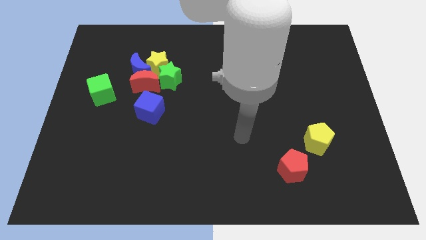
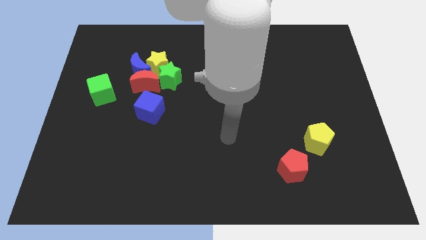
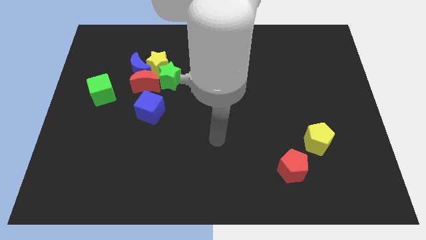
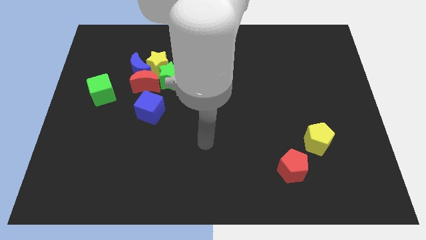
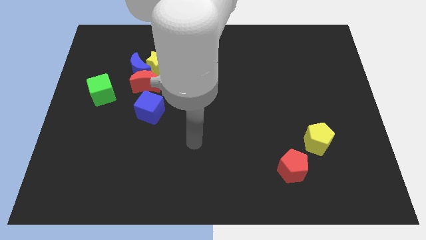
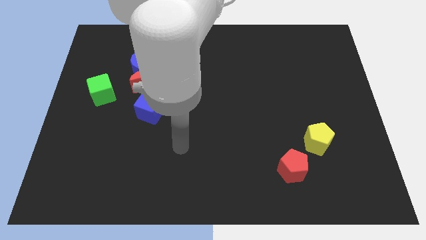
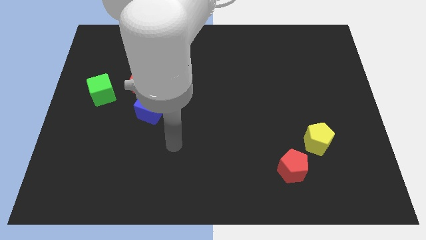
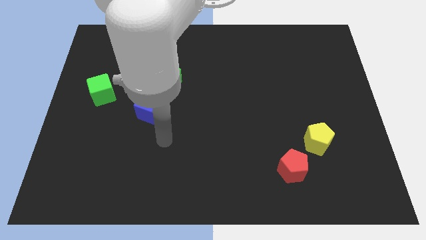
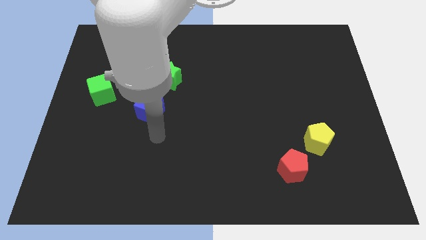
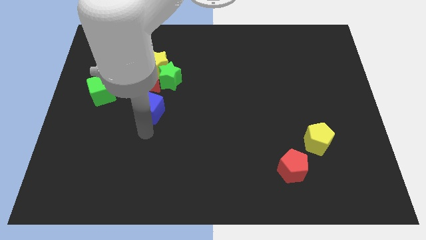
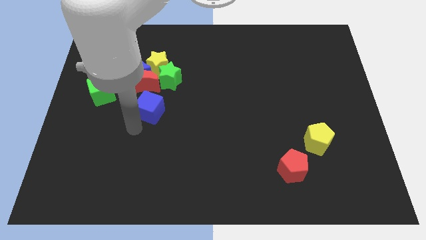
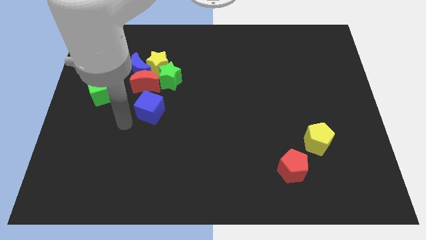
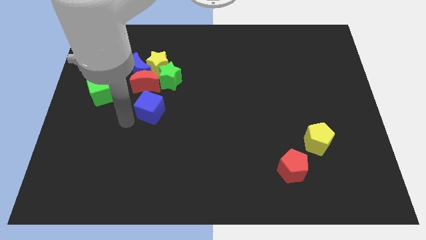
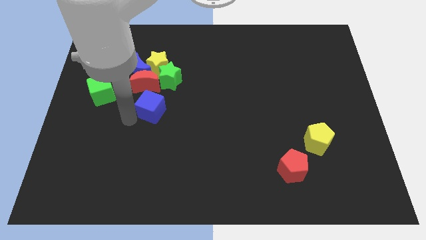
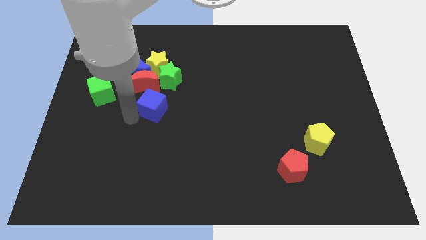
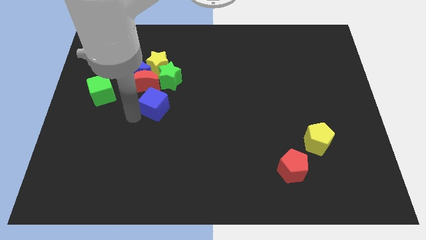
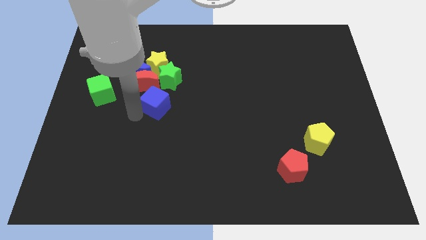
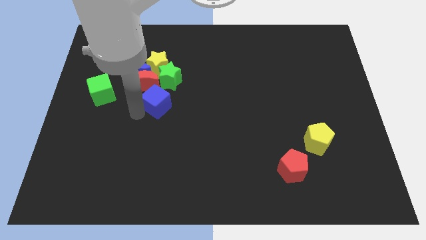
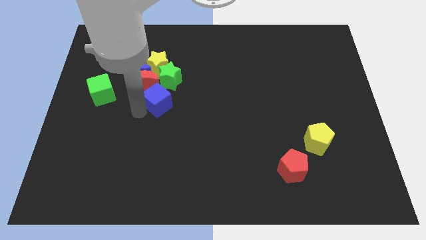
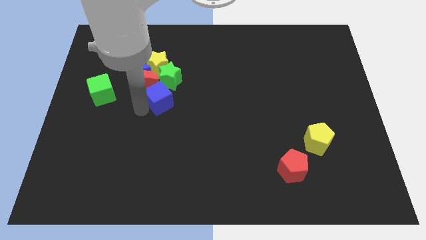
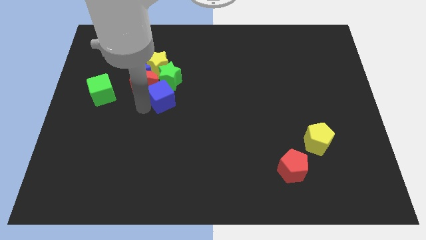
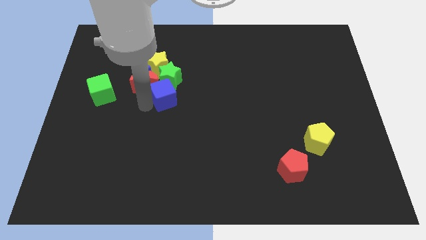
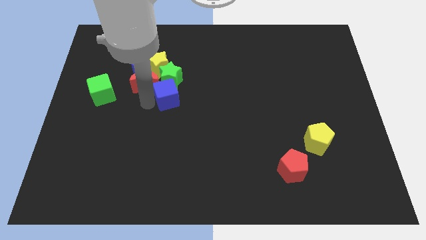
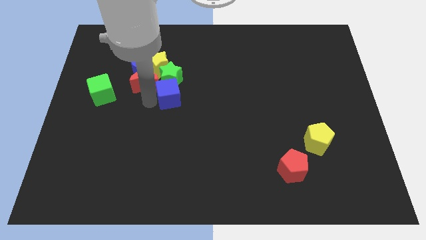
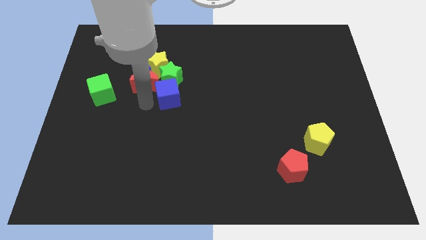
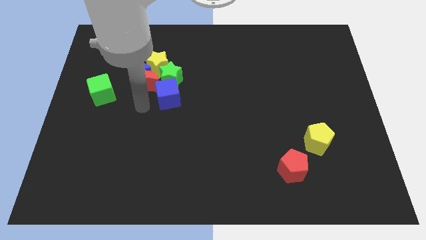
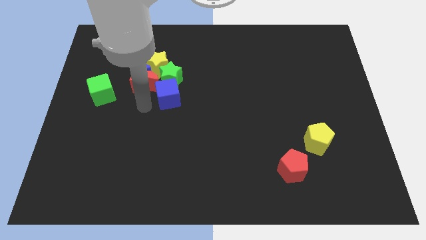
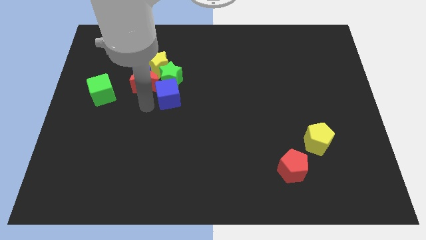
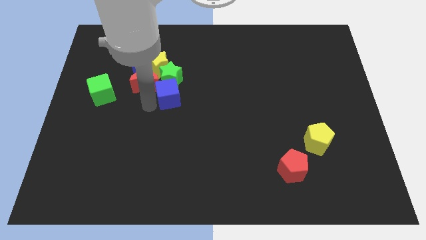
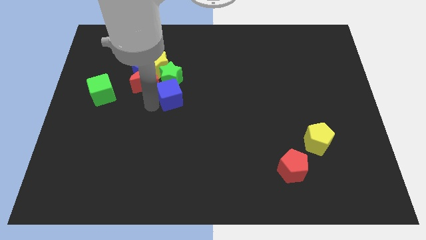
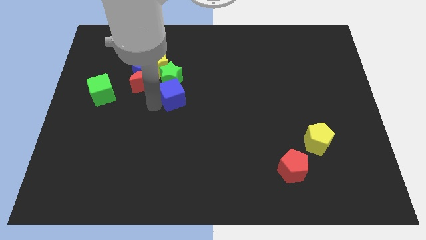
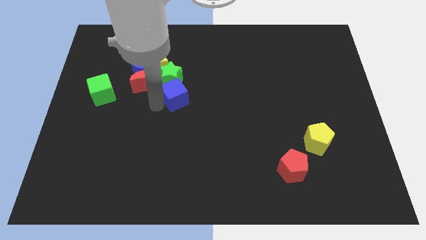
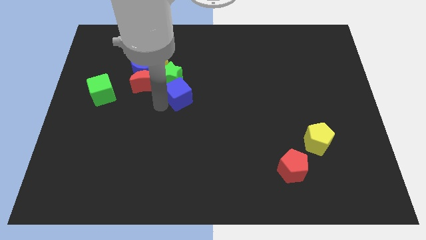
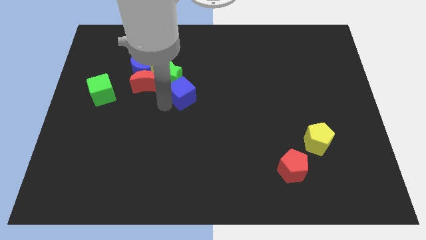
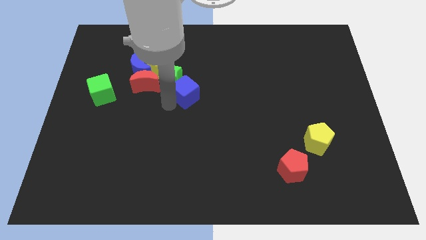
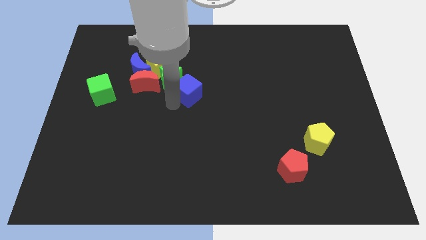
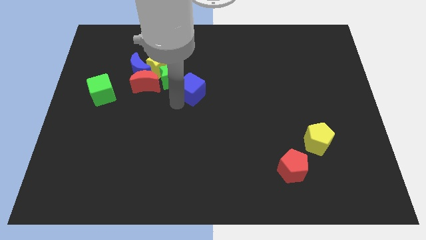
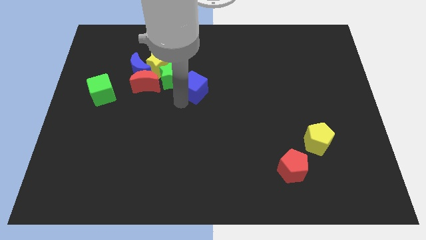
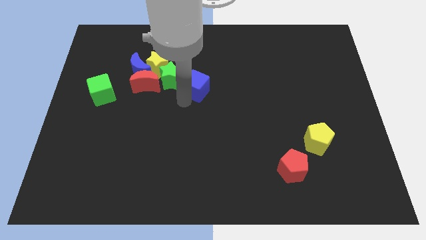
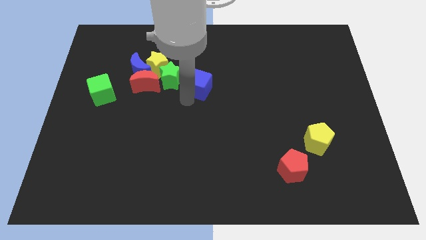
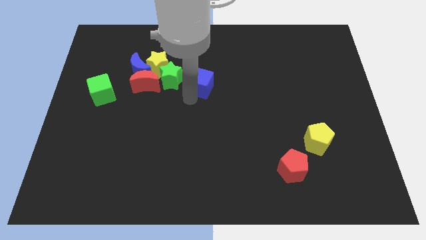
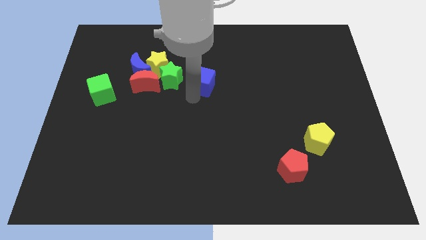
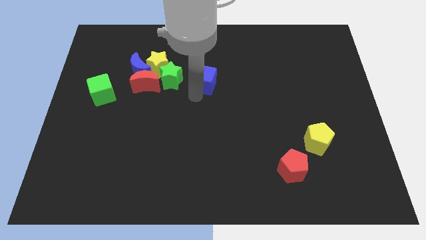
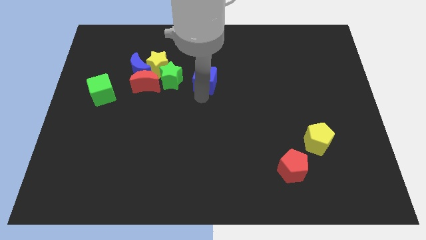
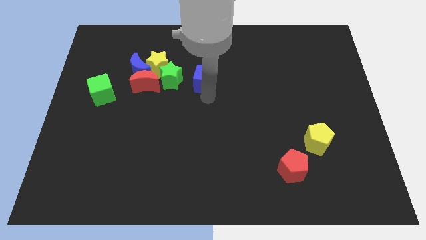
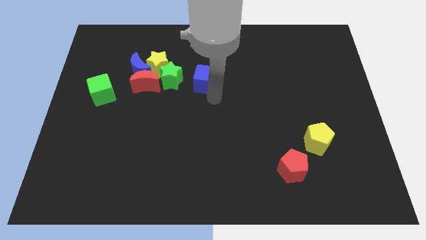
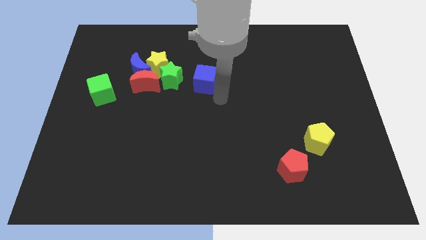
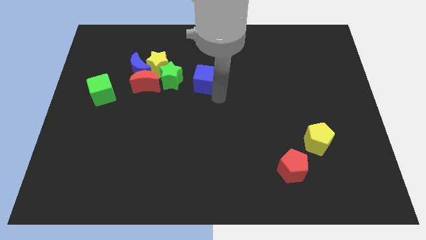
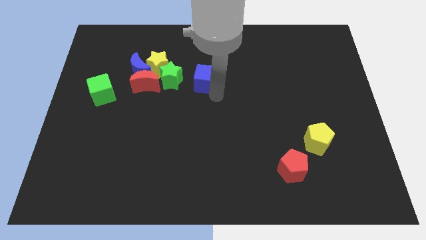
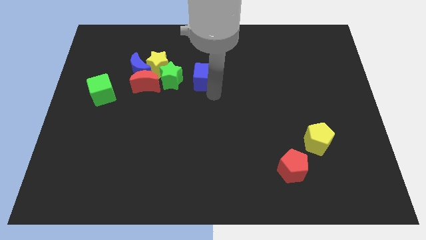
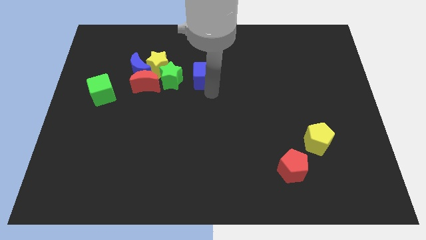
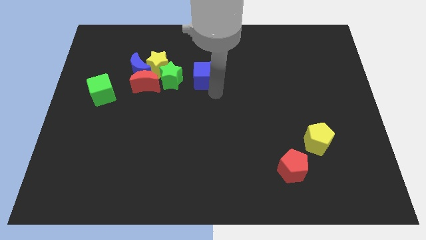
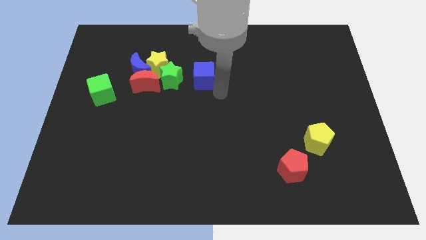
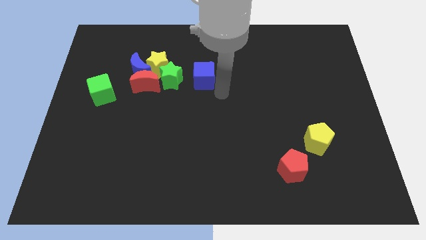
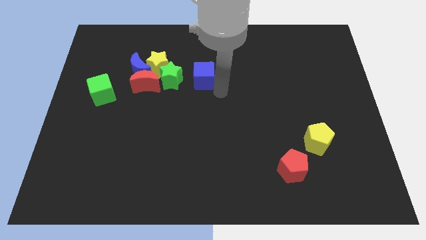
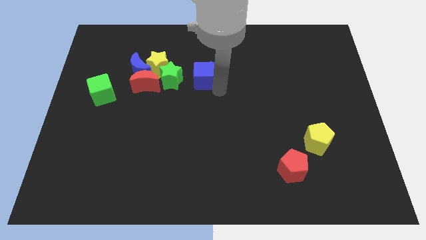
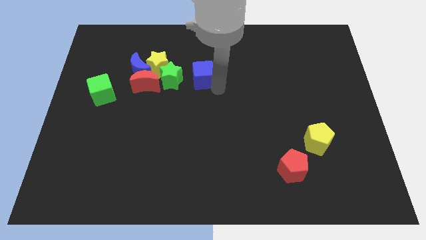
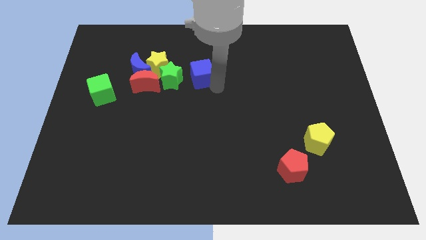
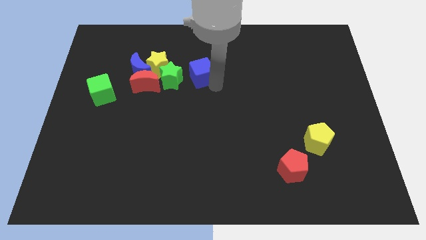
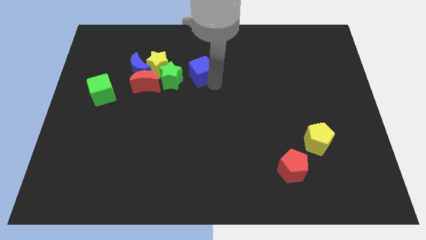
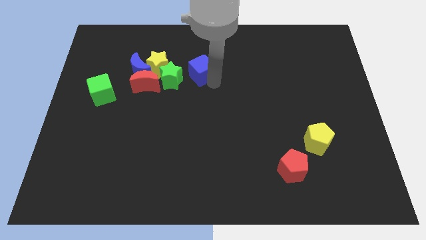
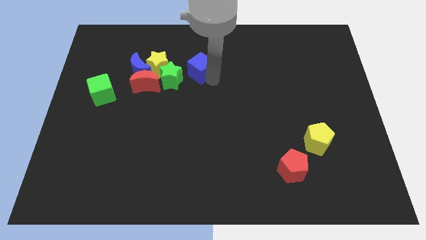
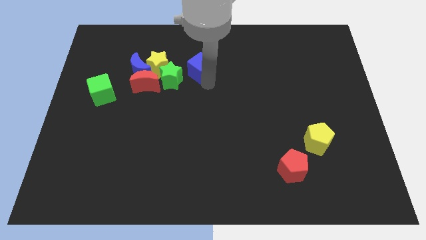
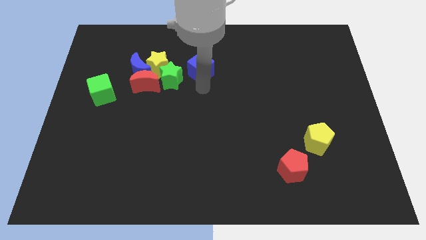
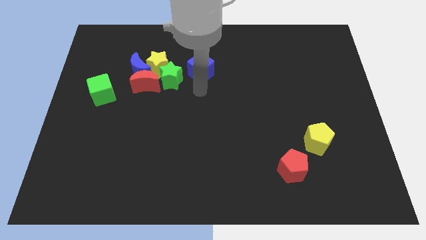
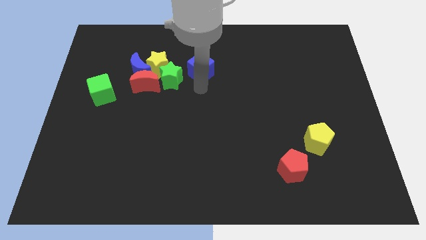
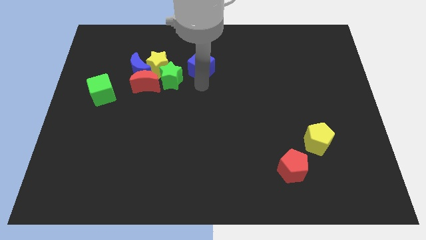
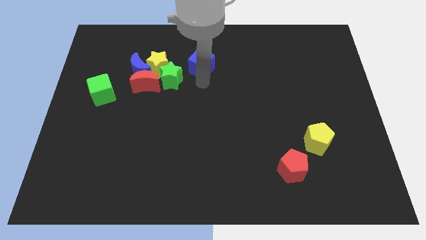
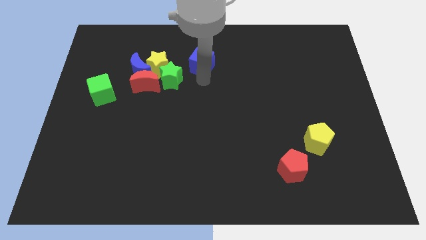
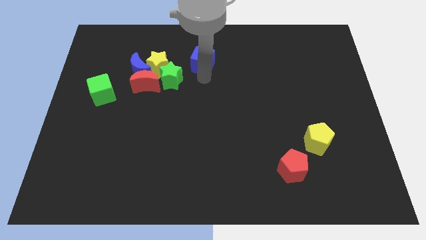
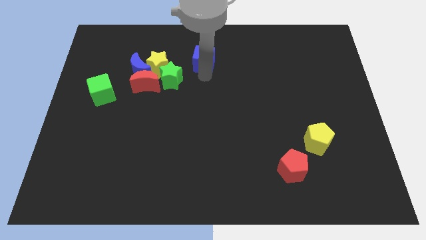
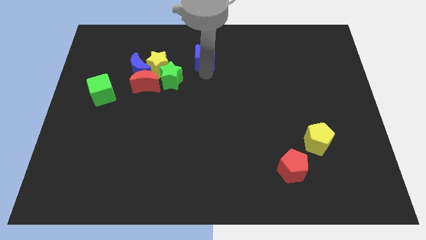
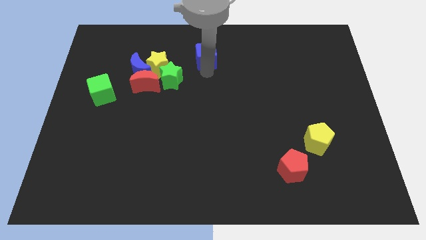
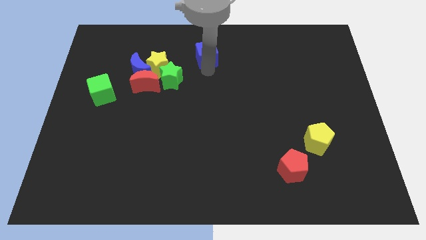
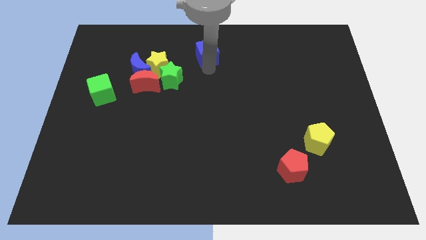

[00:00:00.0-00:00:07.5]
move the blue cube to the top side
